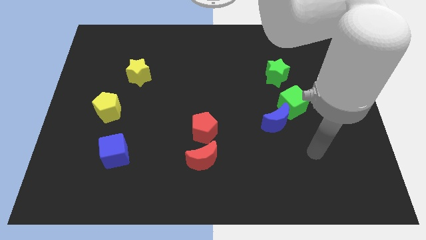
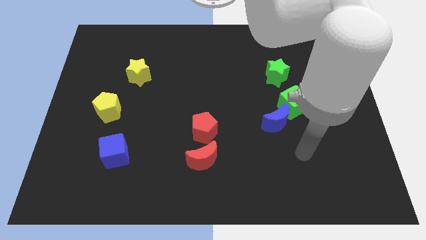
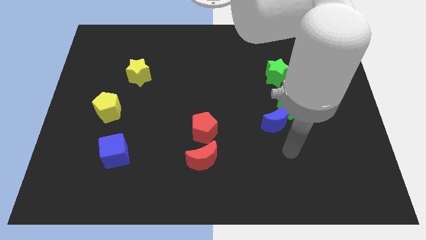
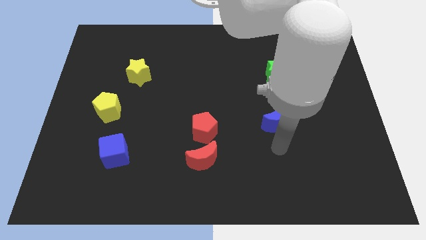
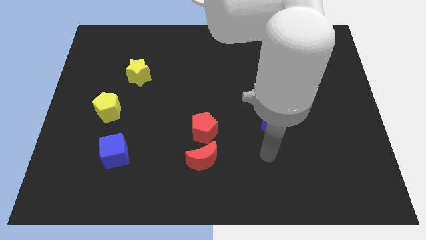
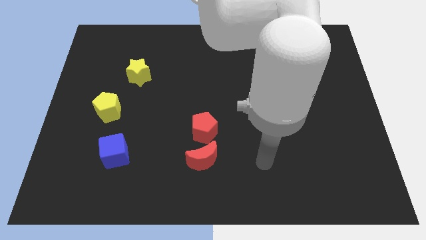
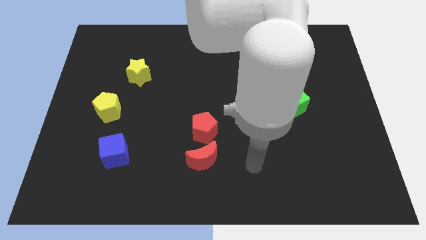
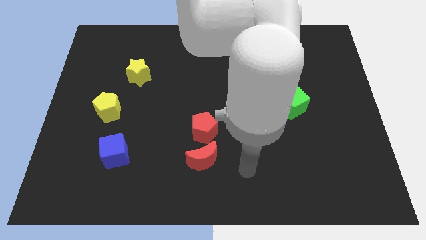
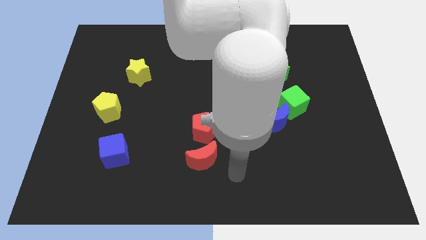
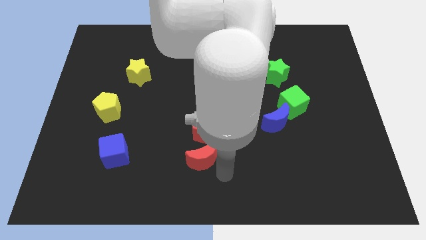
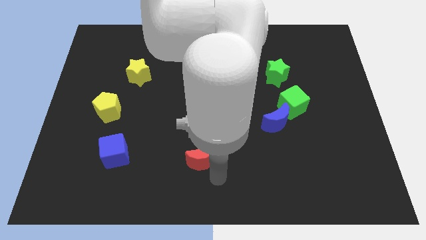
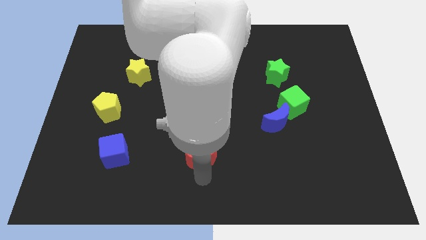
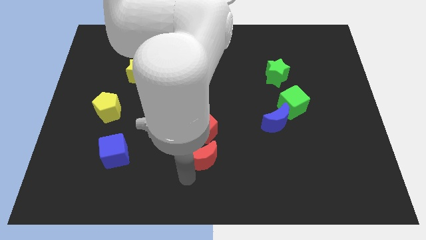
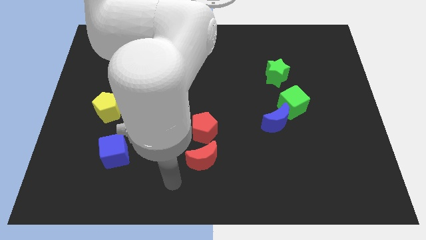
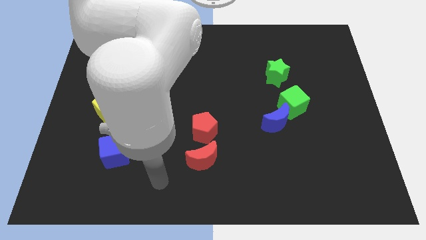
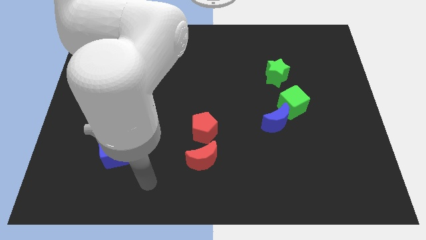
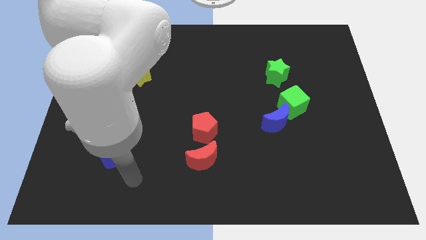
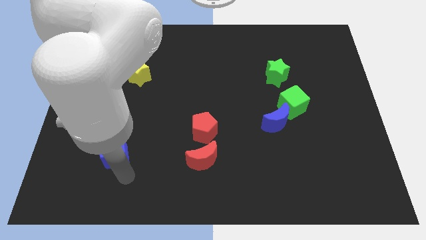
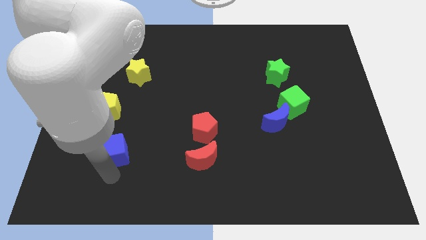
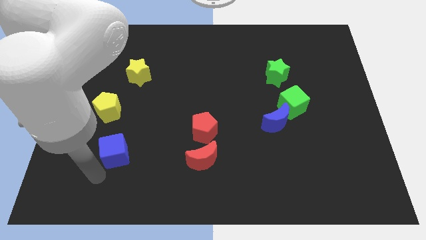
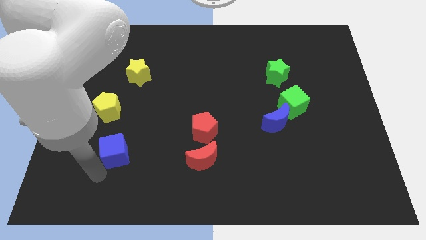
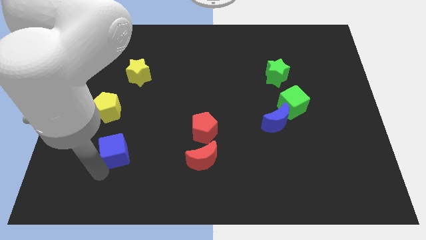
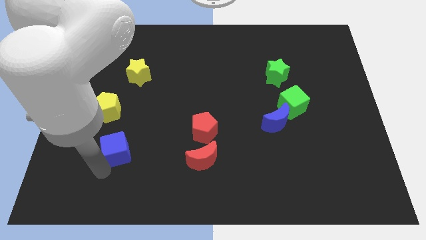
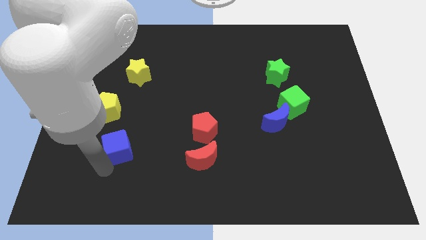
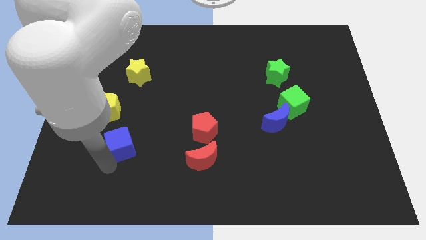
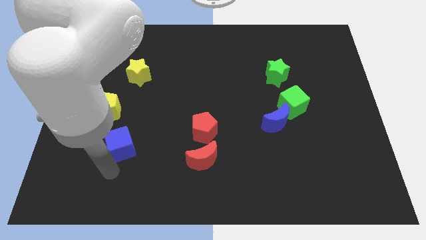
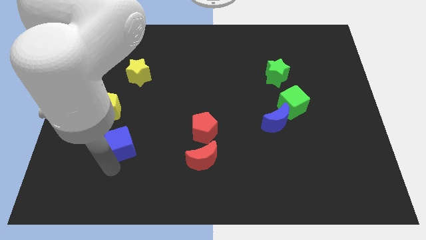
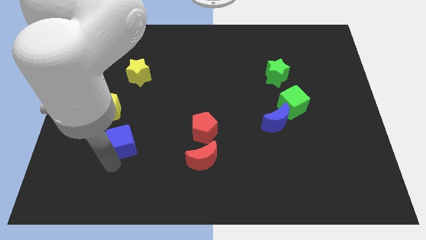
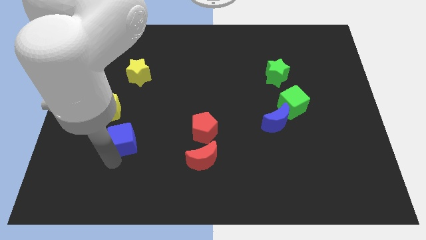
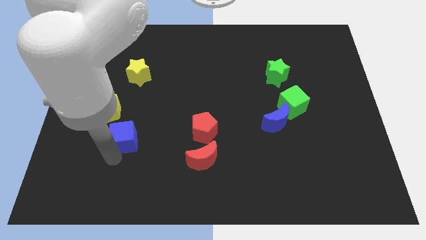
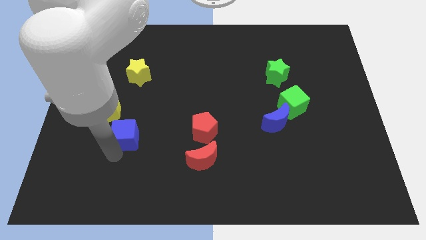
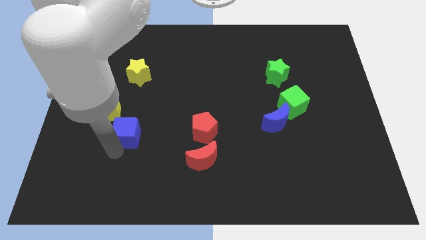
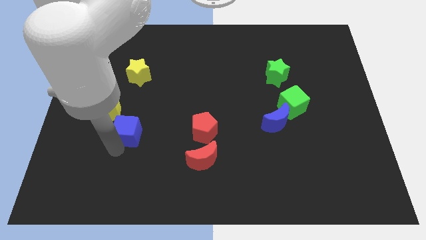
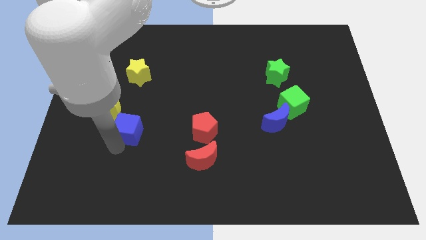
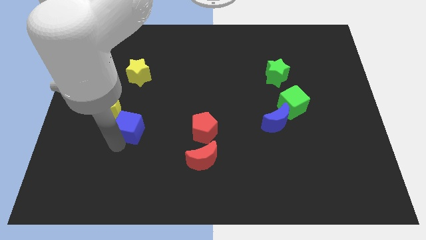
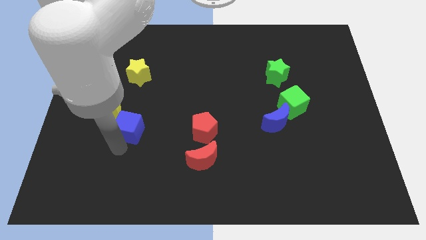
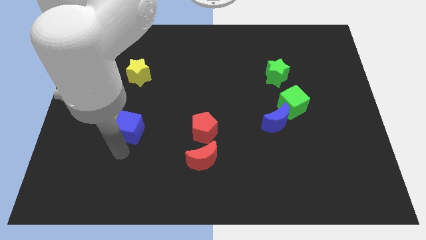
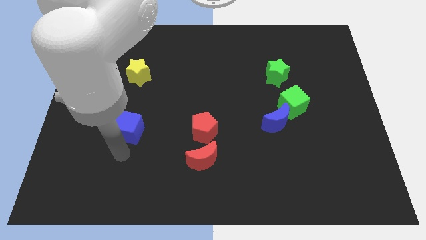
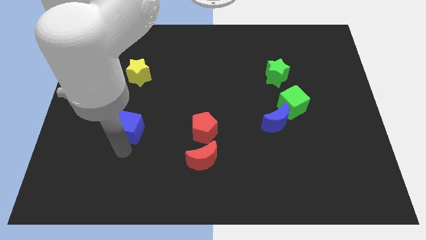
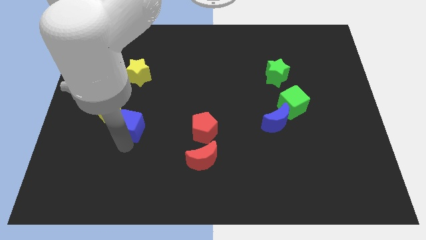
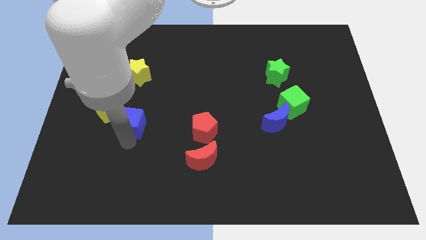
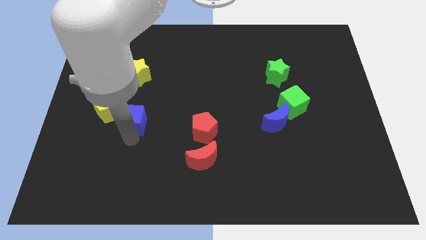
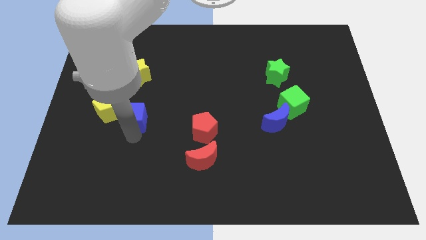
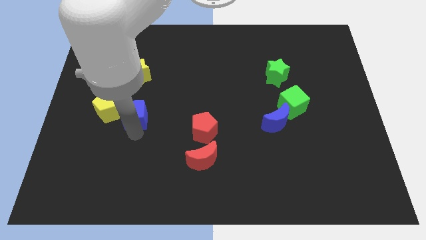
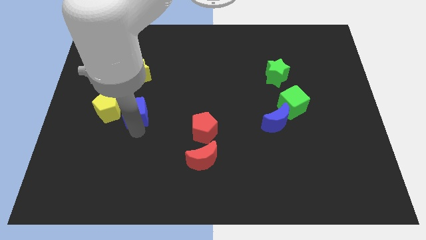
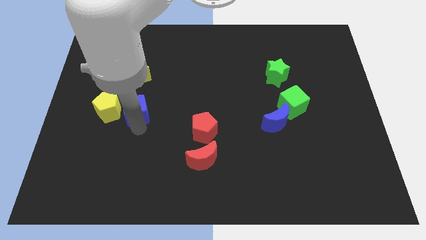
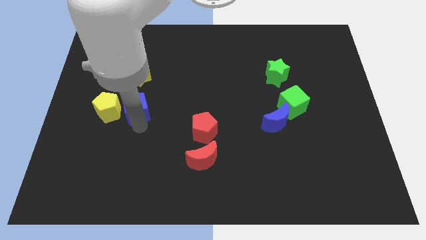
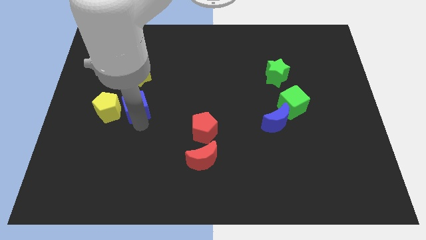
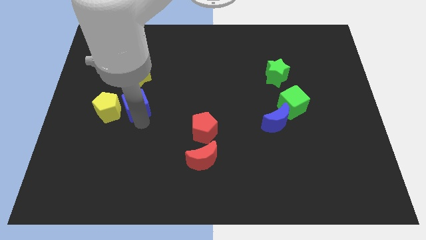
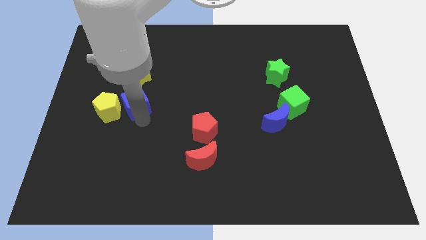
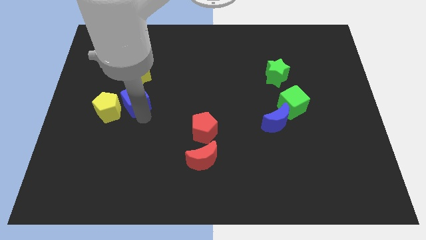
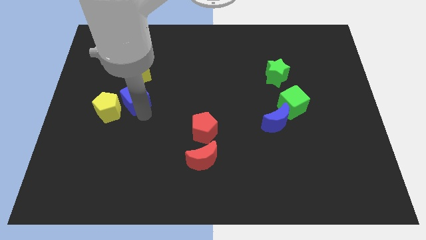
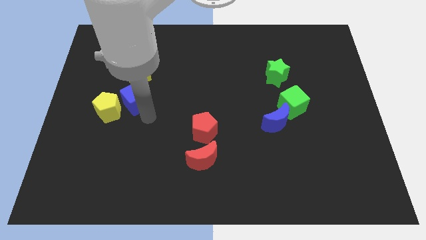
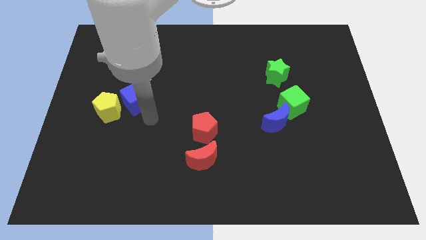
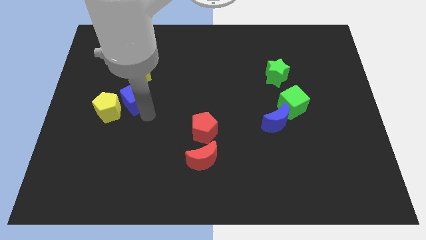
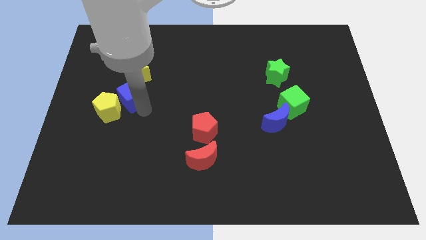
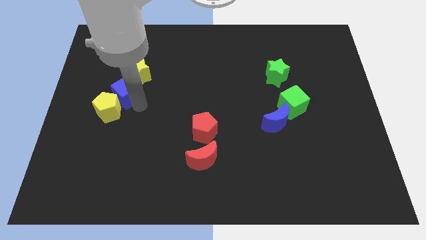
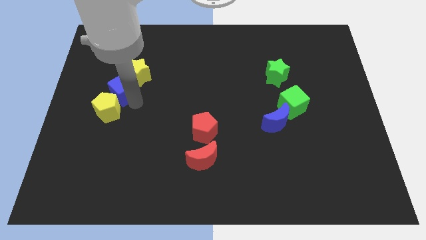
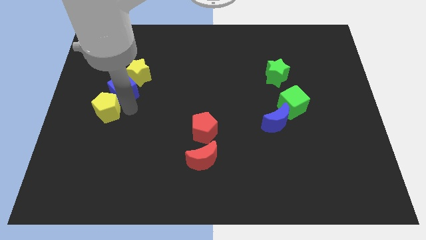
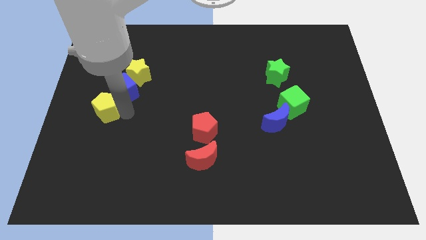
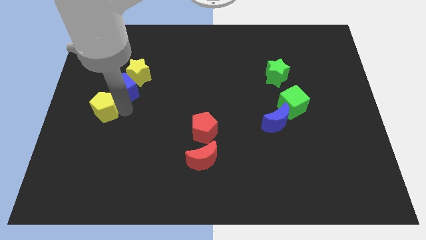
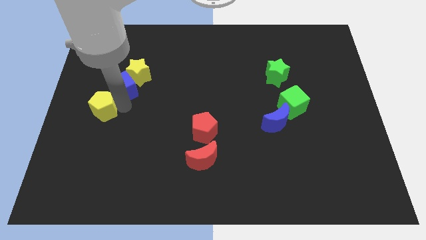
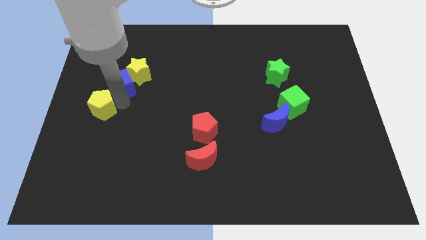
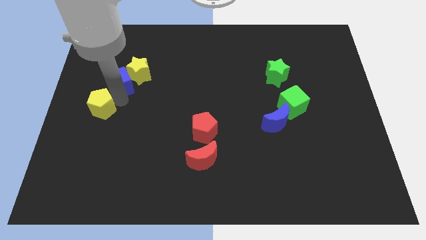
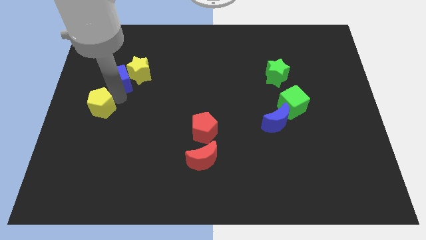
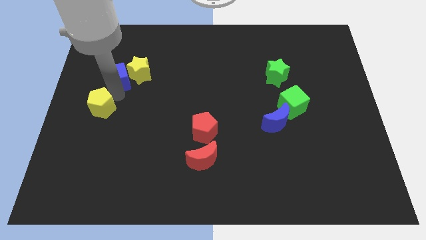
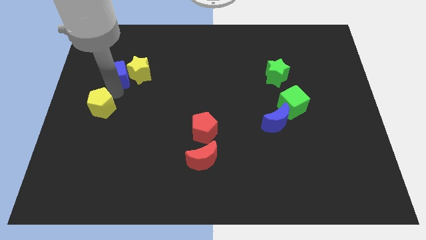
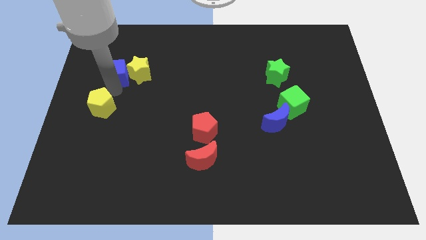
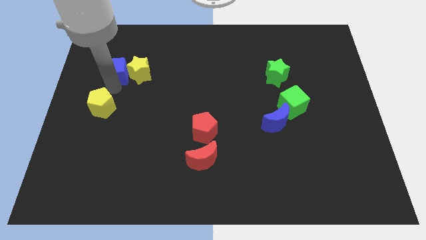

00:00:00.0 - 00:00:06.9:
push the blue cube to the top left side of the yellow star
